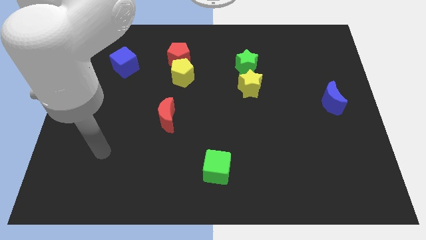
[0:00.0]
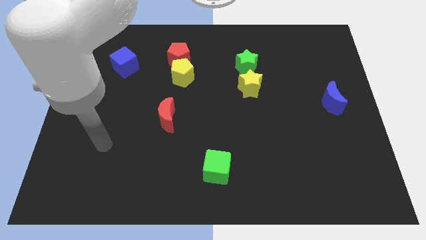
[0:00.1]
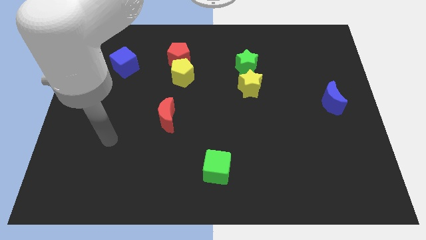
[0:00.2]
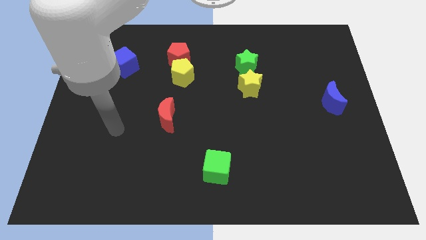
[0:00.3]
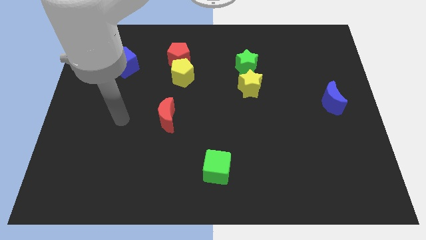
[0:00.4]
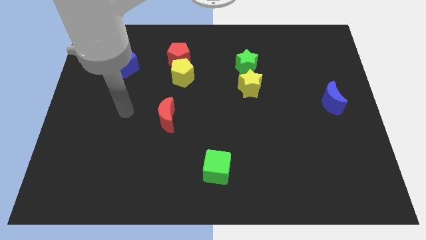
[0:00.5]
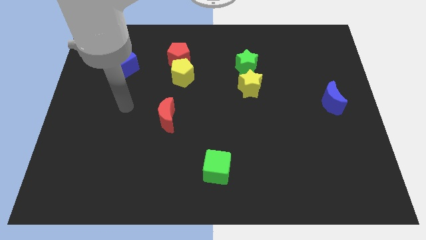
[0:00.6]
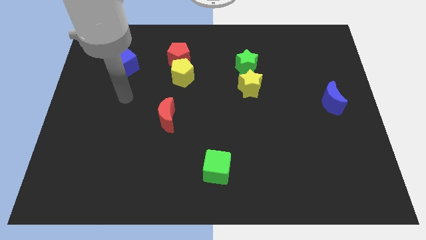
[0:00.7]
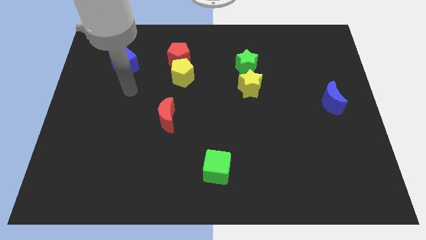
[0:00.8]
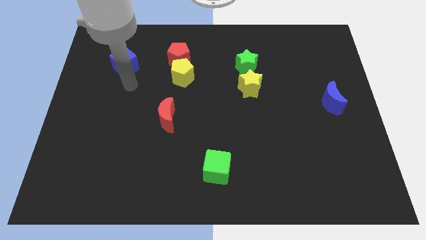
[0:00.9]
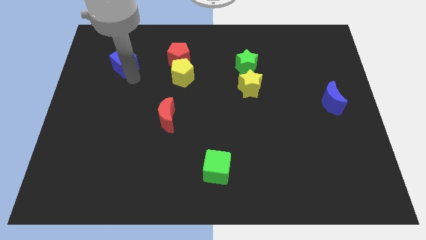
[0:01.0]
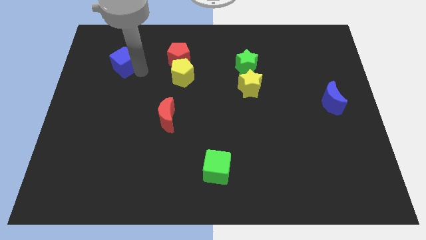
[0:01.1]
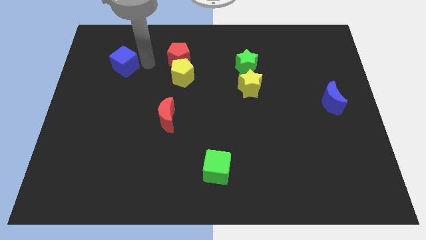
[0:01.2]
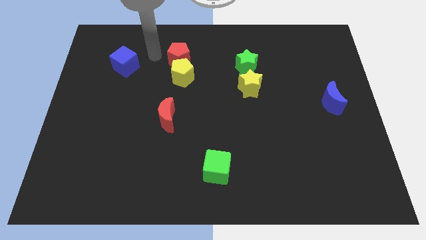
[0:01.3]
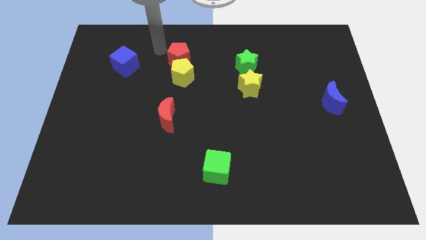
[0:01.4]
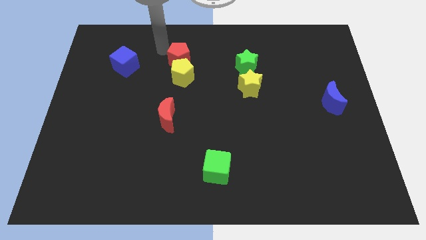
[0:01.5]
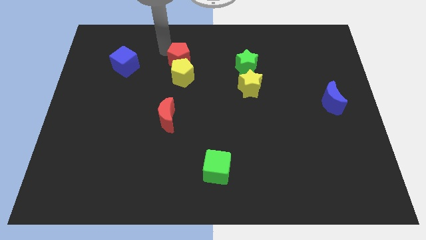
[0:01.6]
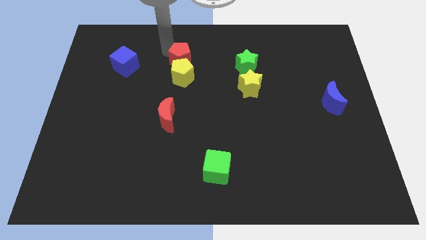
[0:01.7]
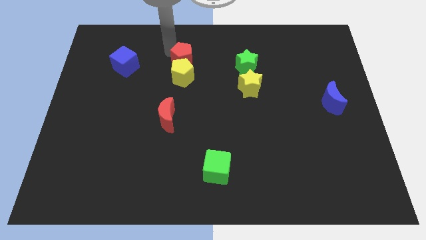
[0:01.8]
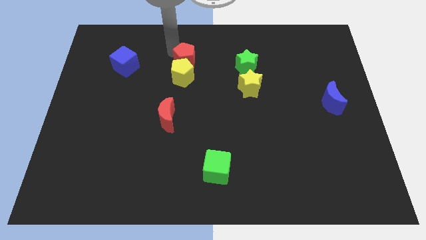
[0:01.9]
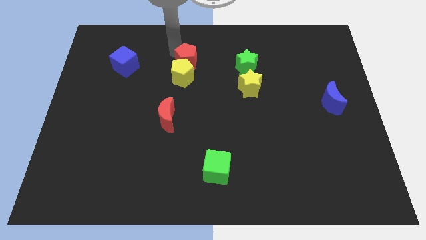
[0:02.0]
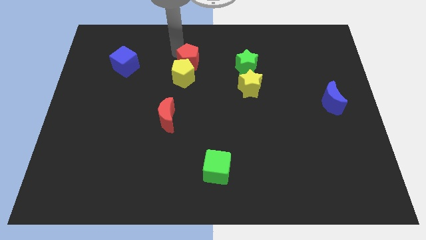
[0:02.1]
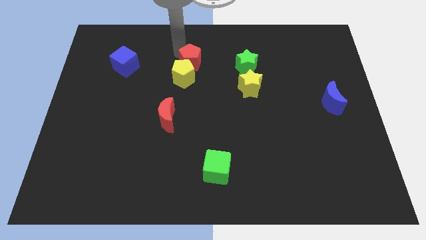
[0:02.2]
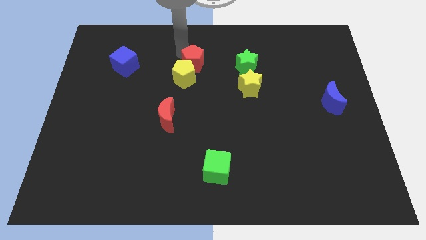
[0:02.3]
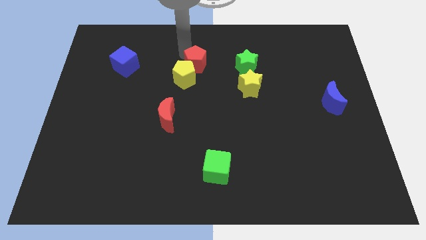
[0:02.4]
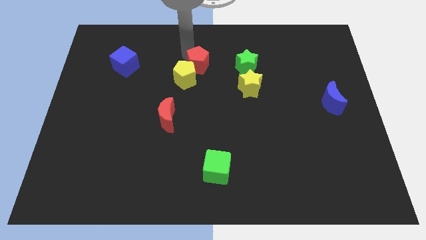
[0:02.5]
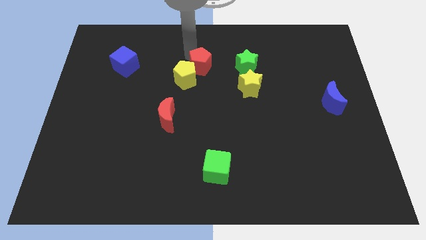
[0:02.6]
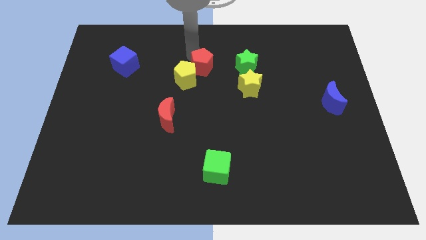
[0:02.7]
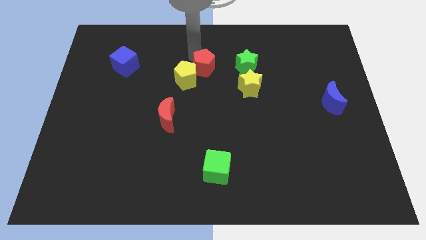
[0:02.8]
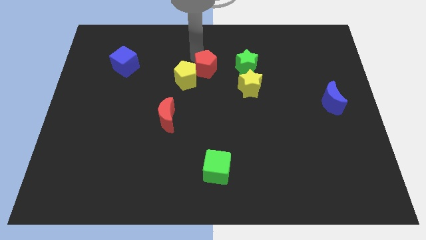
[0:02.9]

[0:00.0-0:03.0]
slightly push the red pentagon down and right diagonally

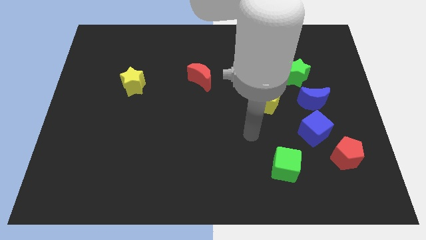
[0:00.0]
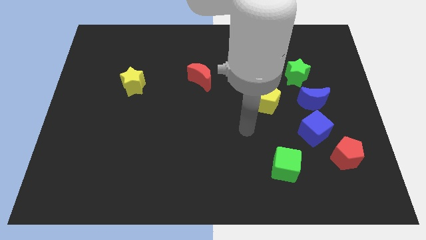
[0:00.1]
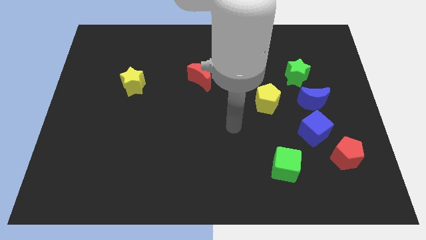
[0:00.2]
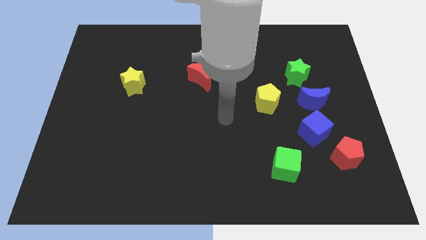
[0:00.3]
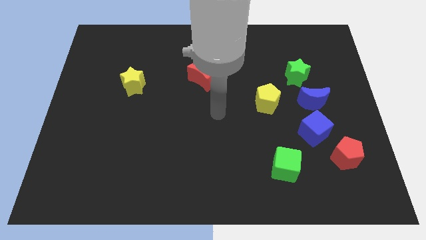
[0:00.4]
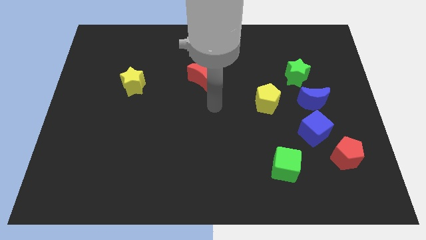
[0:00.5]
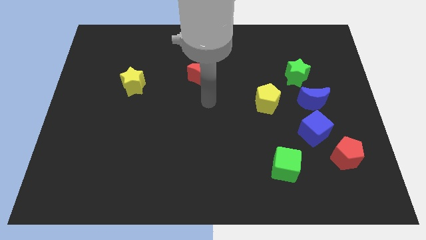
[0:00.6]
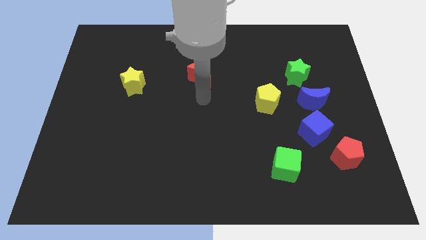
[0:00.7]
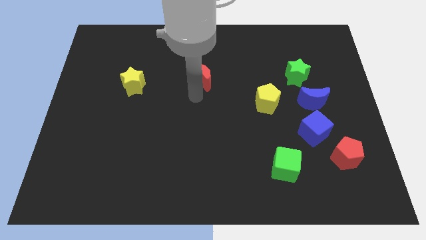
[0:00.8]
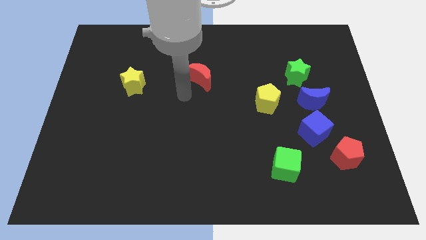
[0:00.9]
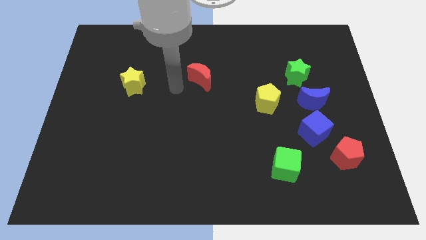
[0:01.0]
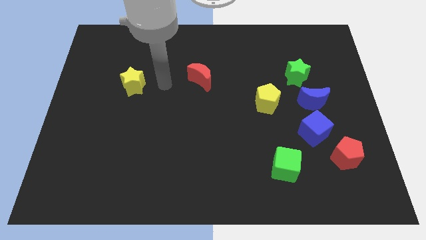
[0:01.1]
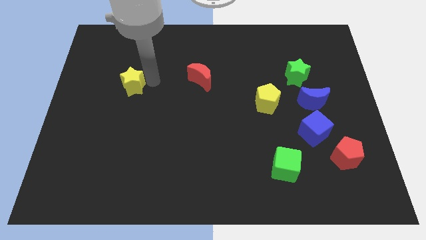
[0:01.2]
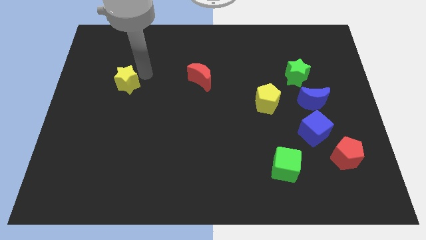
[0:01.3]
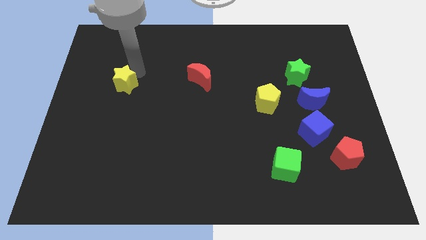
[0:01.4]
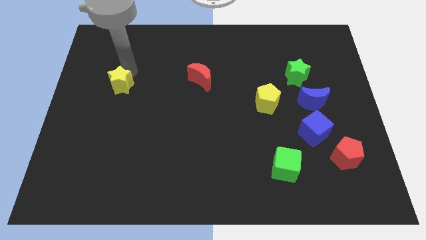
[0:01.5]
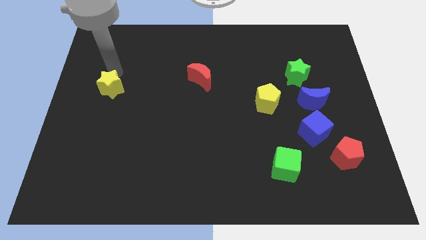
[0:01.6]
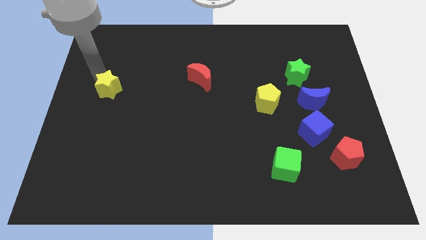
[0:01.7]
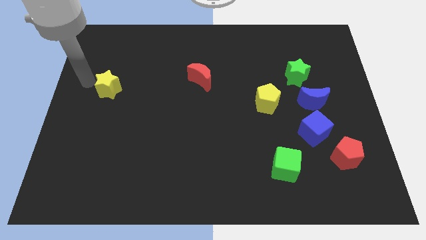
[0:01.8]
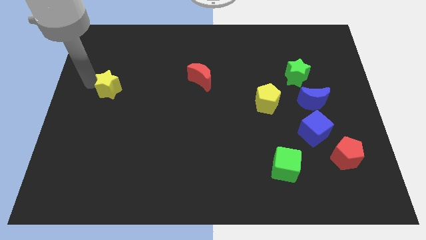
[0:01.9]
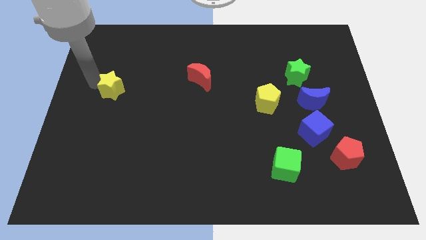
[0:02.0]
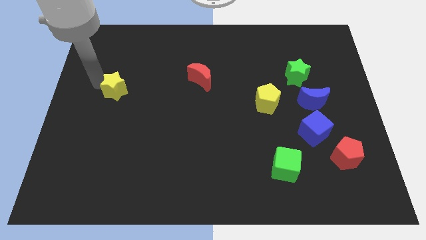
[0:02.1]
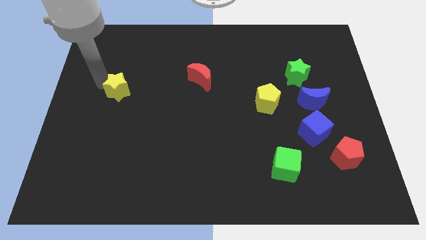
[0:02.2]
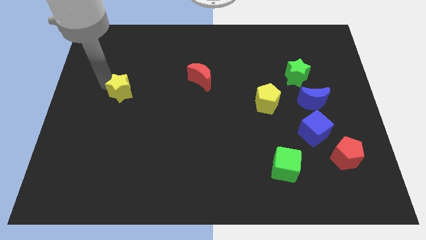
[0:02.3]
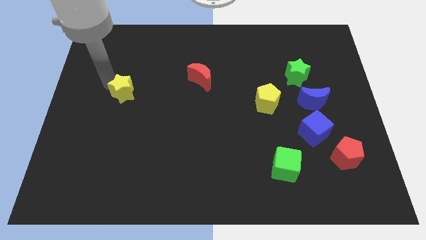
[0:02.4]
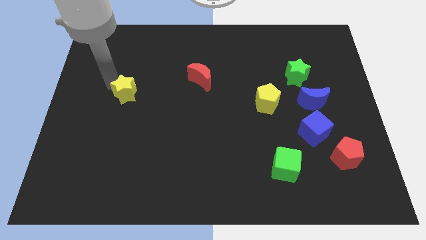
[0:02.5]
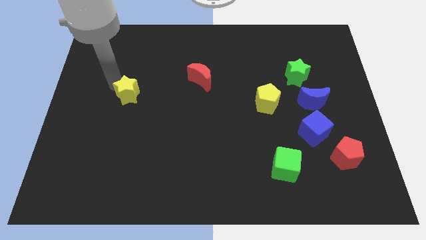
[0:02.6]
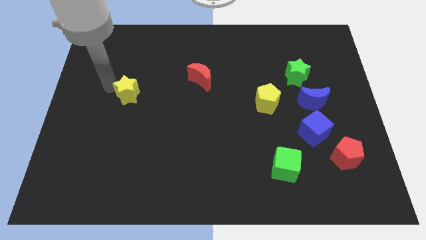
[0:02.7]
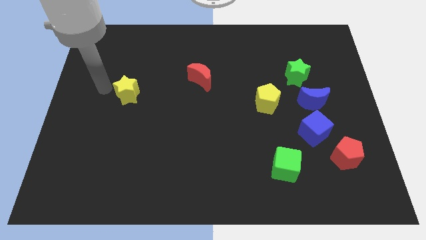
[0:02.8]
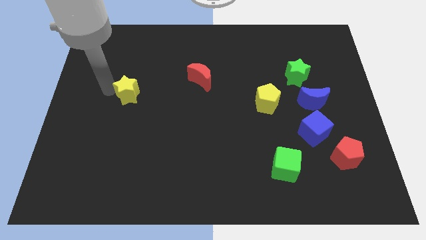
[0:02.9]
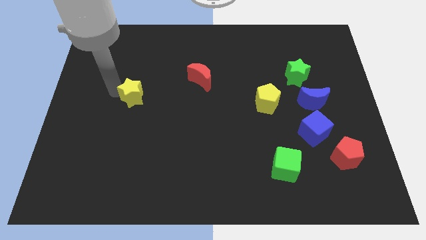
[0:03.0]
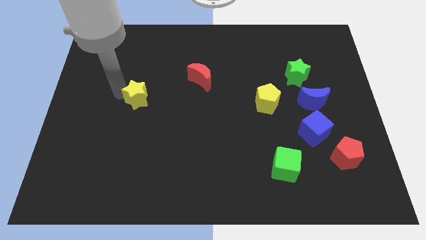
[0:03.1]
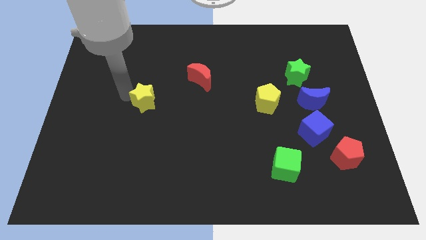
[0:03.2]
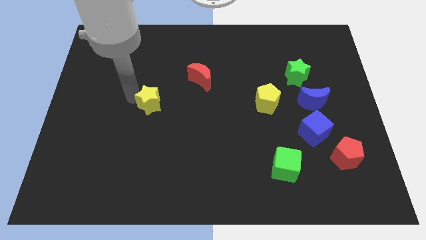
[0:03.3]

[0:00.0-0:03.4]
move the yellow star a bit down and right diagonally

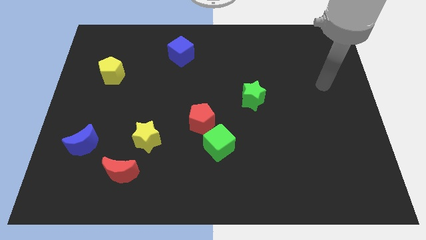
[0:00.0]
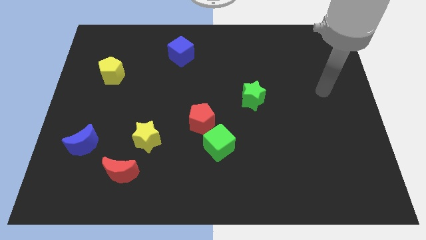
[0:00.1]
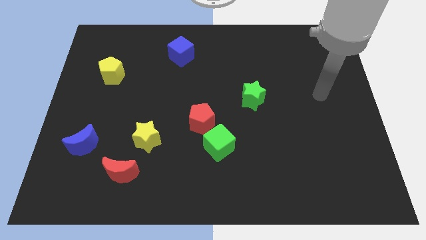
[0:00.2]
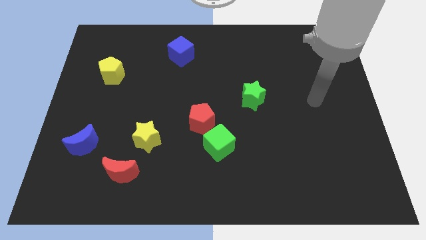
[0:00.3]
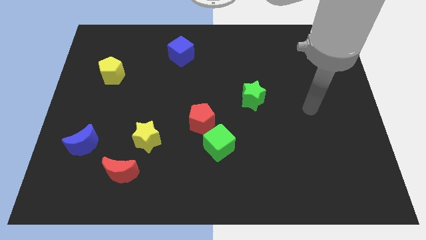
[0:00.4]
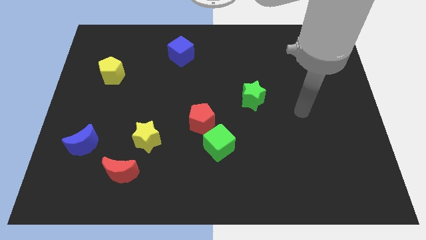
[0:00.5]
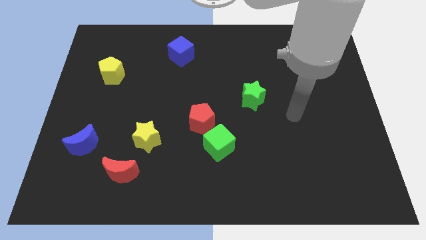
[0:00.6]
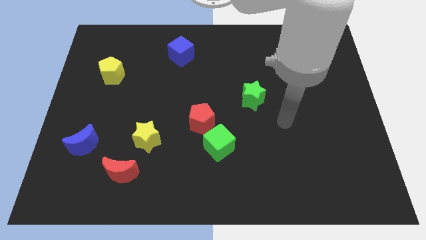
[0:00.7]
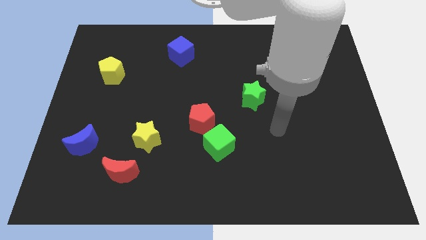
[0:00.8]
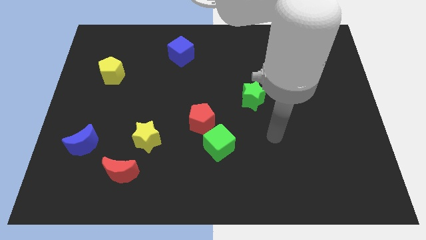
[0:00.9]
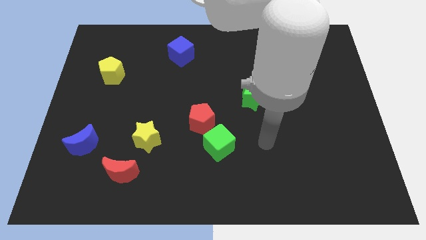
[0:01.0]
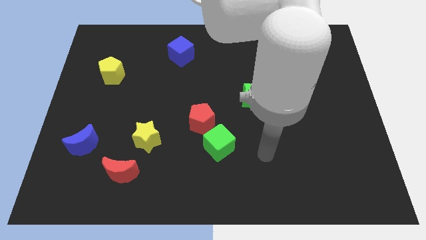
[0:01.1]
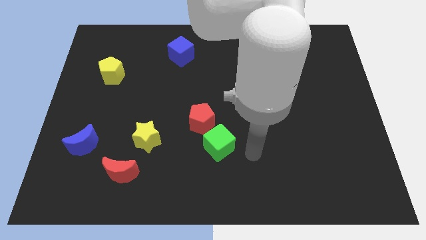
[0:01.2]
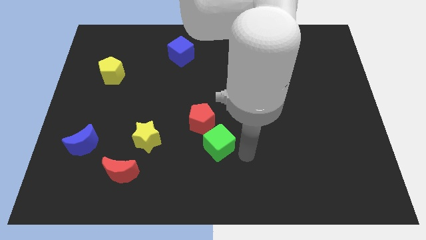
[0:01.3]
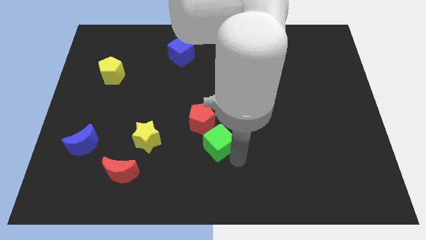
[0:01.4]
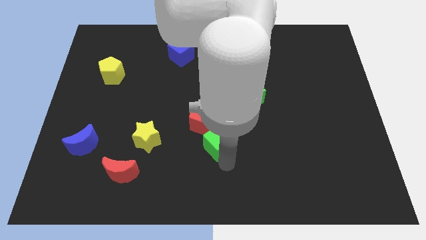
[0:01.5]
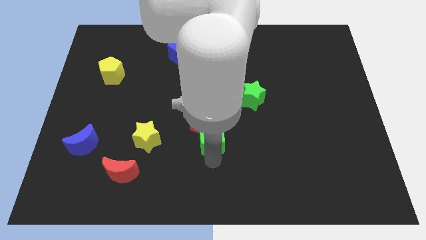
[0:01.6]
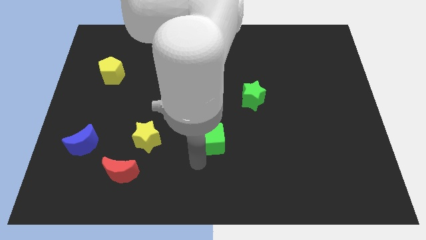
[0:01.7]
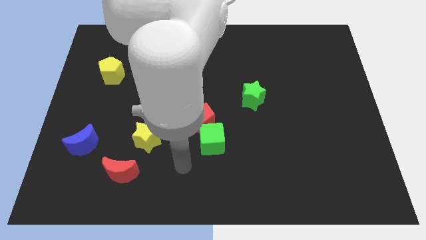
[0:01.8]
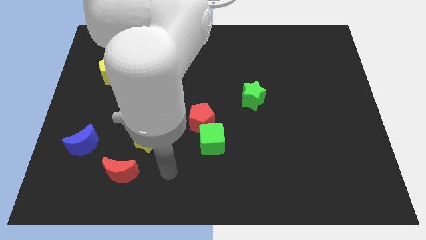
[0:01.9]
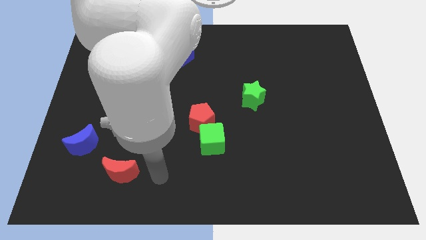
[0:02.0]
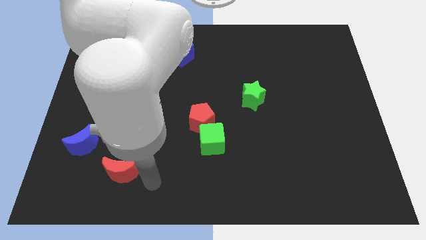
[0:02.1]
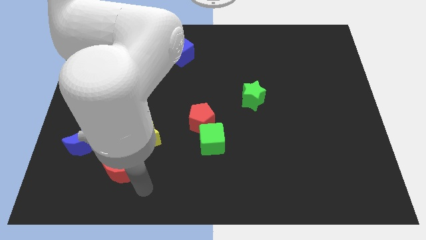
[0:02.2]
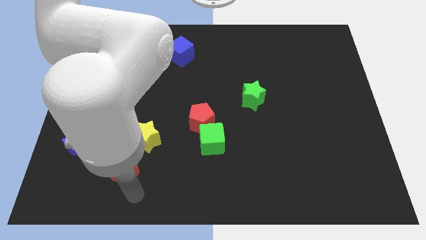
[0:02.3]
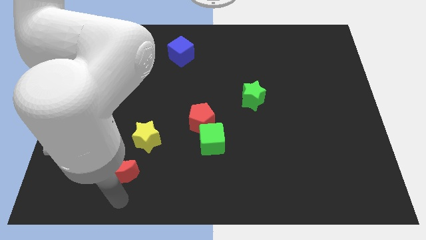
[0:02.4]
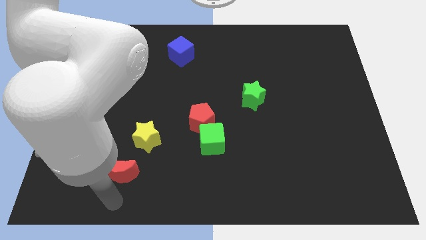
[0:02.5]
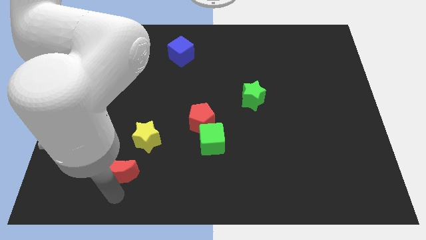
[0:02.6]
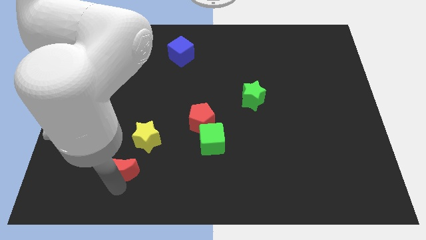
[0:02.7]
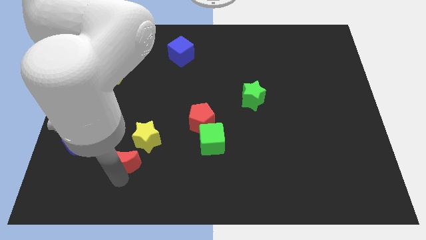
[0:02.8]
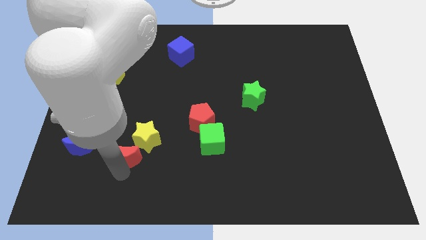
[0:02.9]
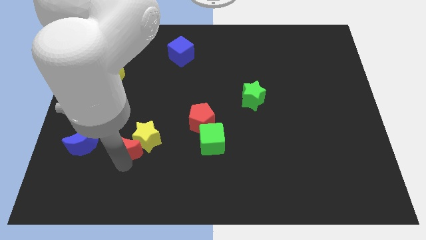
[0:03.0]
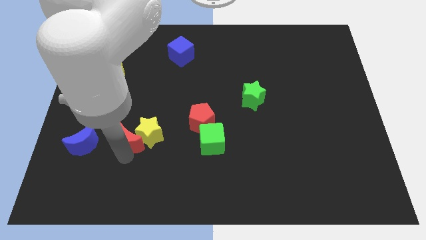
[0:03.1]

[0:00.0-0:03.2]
slide the red moon up a bit
